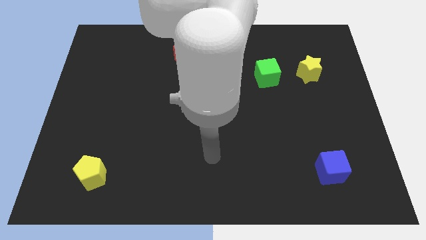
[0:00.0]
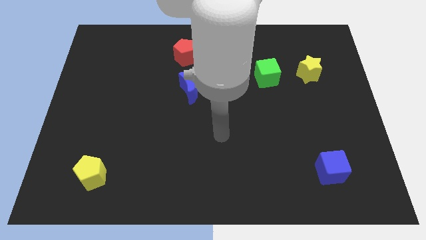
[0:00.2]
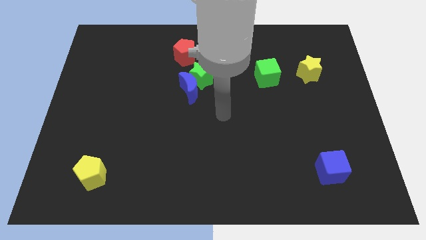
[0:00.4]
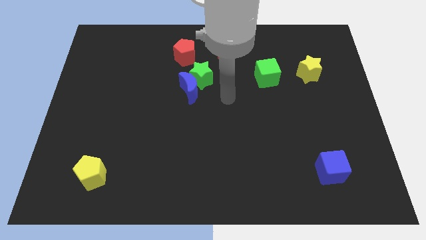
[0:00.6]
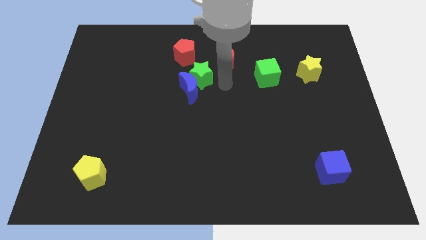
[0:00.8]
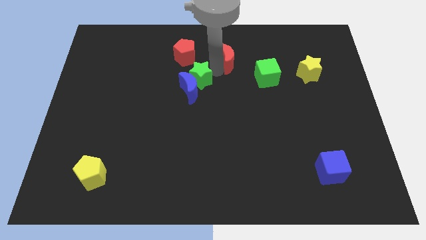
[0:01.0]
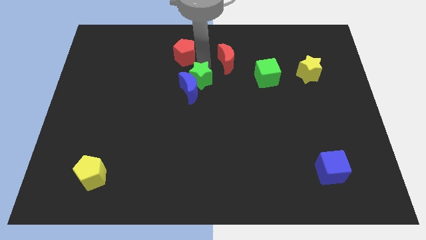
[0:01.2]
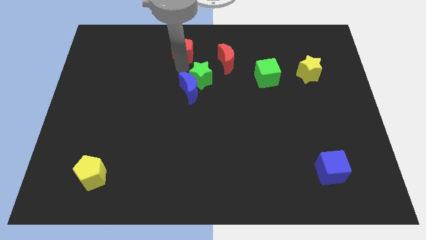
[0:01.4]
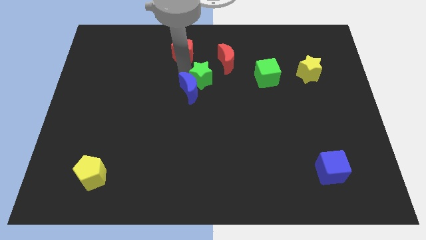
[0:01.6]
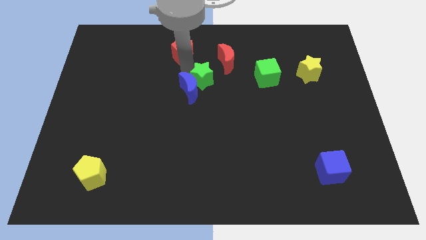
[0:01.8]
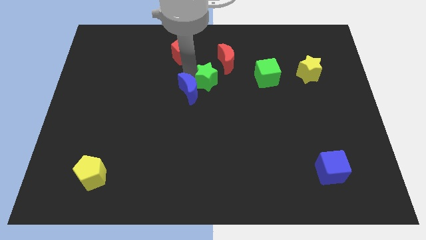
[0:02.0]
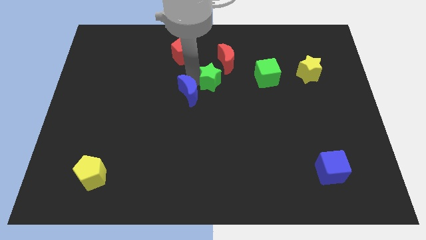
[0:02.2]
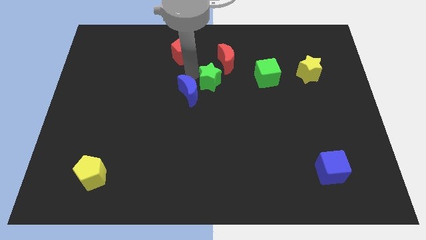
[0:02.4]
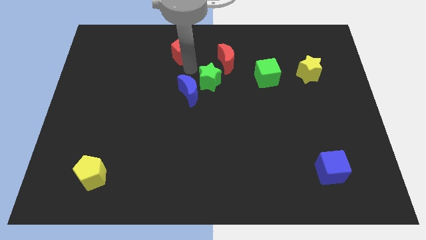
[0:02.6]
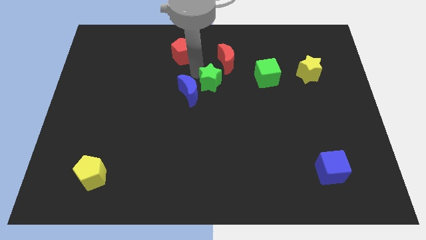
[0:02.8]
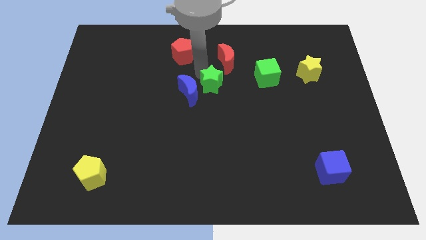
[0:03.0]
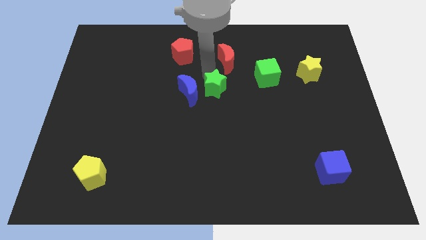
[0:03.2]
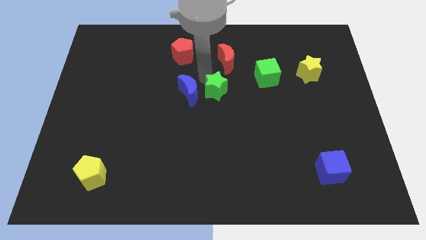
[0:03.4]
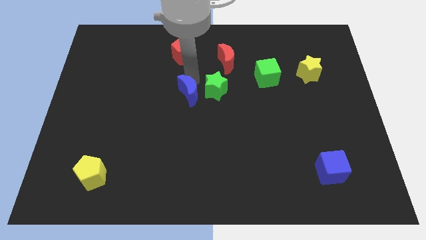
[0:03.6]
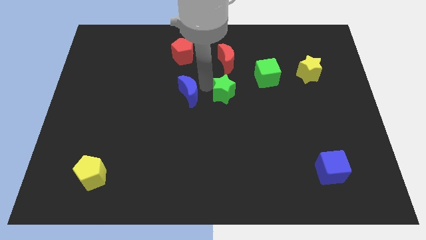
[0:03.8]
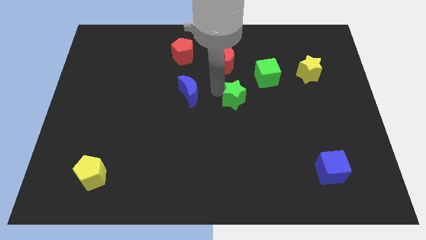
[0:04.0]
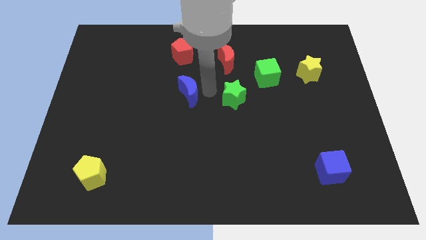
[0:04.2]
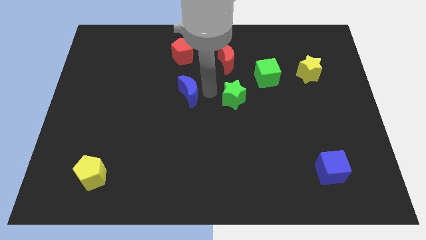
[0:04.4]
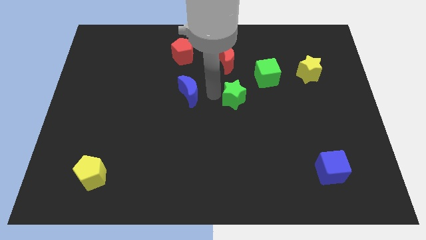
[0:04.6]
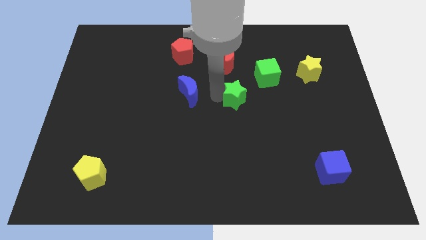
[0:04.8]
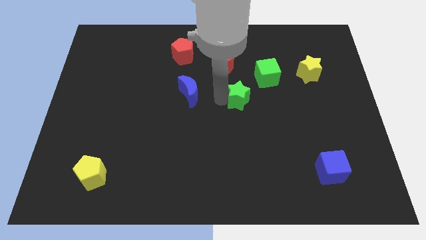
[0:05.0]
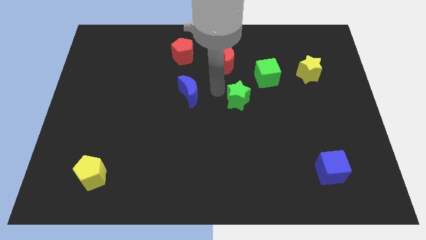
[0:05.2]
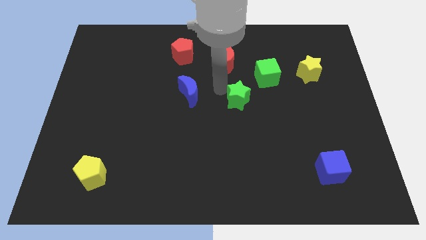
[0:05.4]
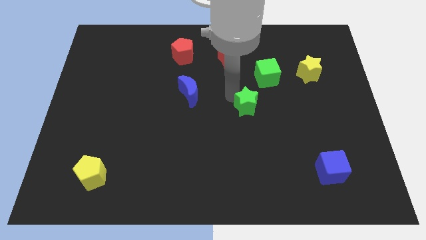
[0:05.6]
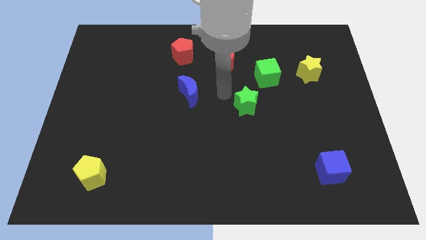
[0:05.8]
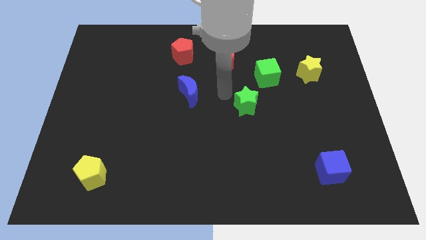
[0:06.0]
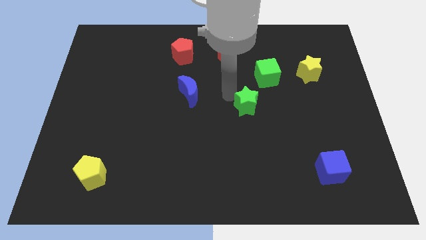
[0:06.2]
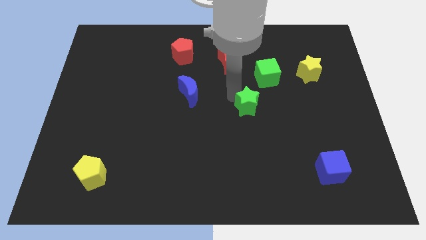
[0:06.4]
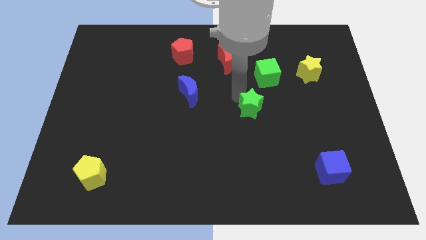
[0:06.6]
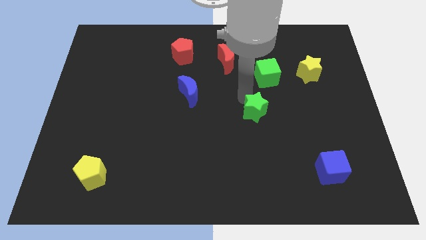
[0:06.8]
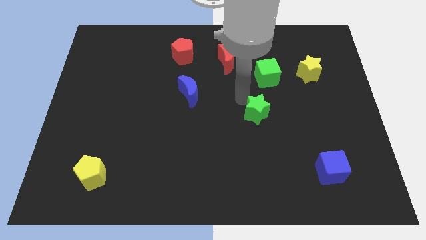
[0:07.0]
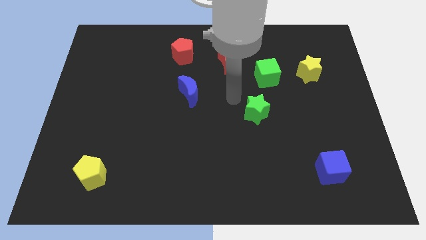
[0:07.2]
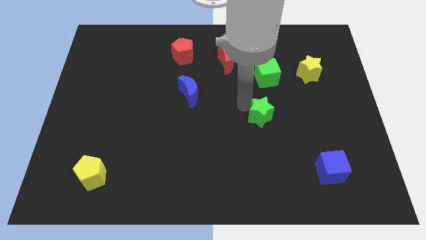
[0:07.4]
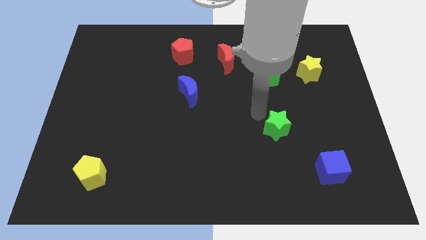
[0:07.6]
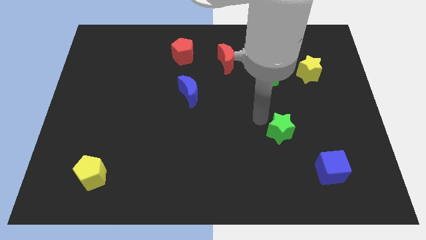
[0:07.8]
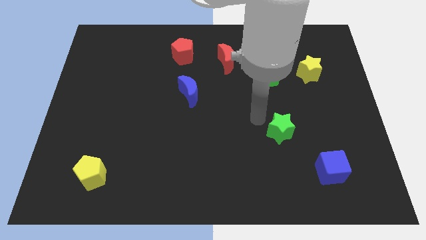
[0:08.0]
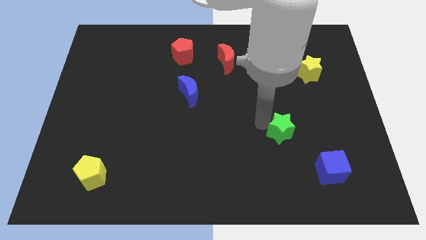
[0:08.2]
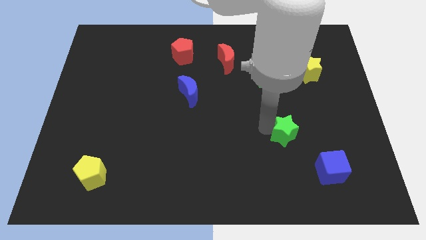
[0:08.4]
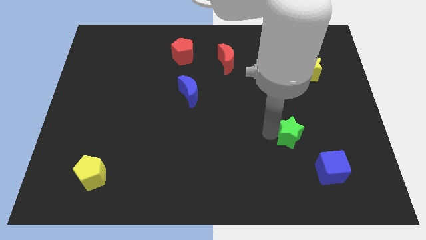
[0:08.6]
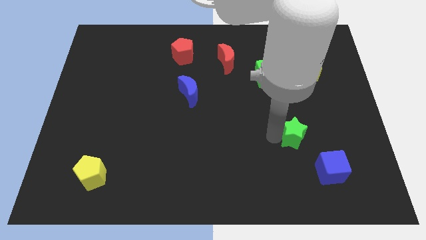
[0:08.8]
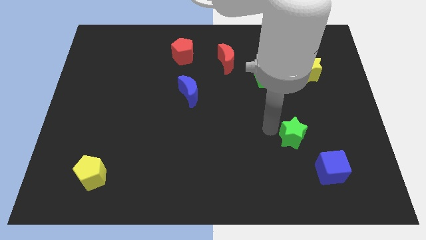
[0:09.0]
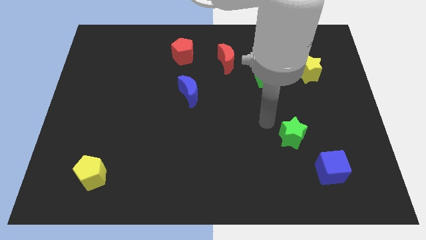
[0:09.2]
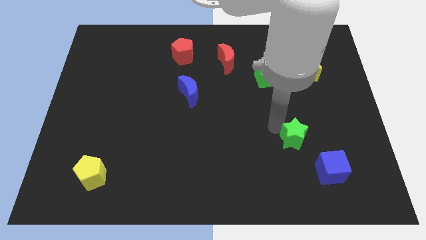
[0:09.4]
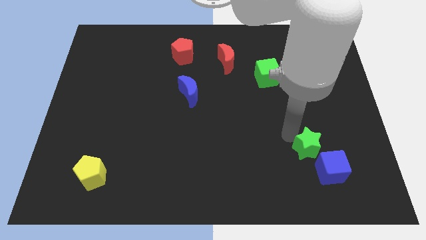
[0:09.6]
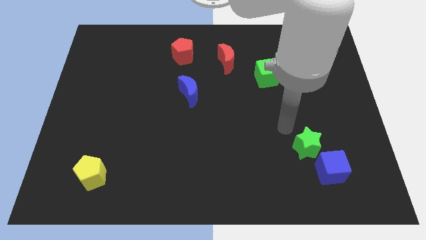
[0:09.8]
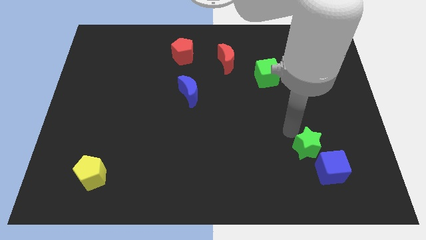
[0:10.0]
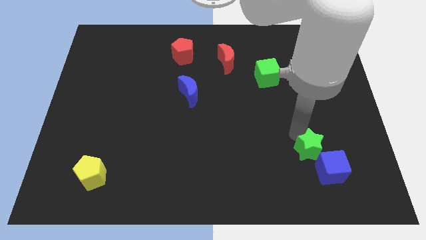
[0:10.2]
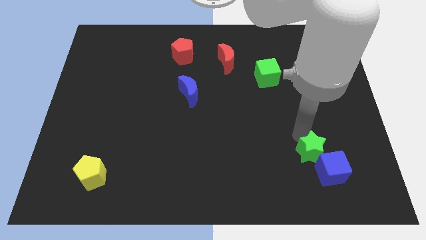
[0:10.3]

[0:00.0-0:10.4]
push the green star to the blue cube

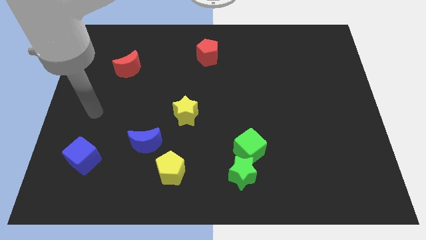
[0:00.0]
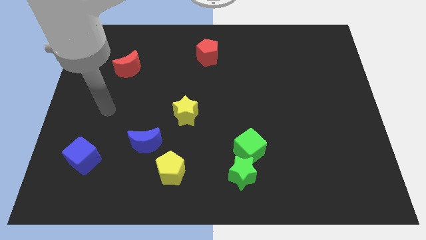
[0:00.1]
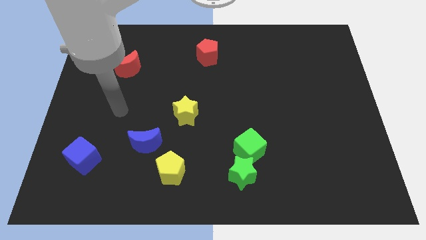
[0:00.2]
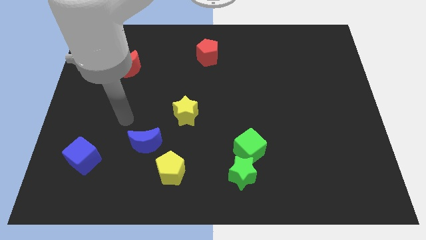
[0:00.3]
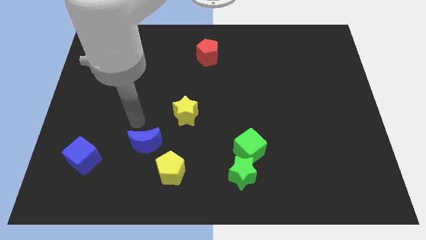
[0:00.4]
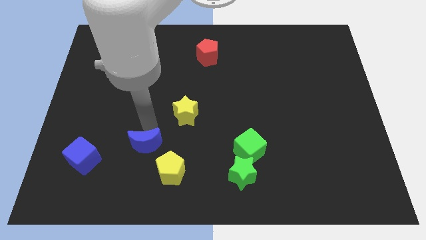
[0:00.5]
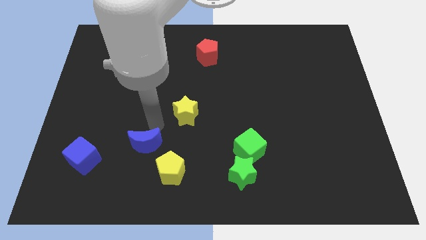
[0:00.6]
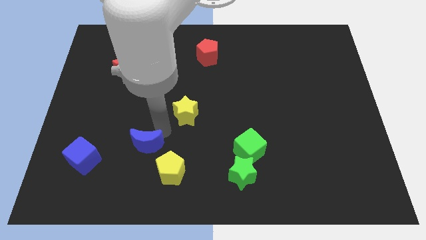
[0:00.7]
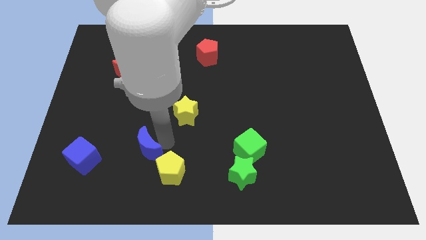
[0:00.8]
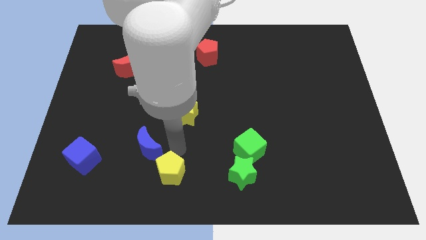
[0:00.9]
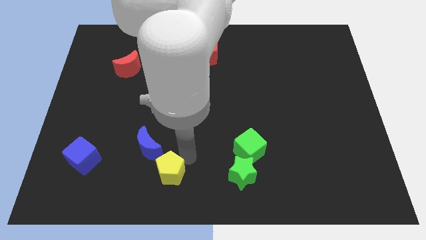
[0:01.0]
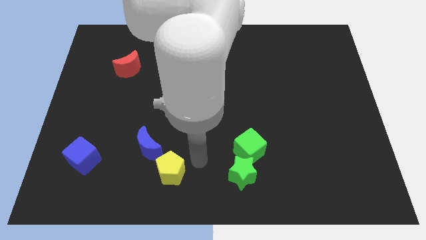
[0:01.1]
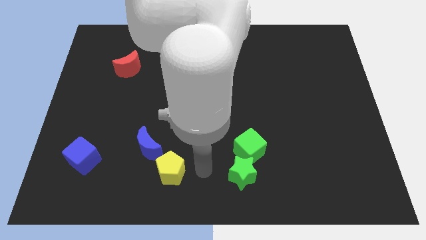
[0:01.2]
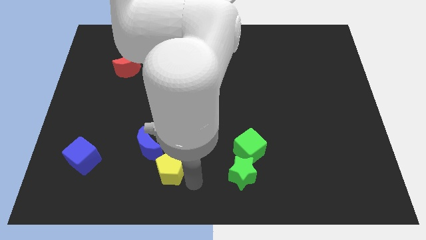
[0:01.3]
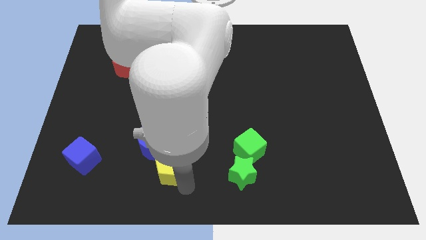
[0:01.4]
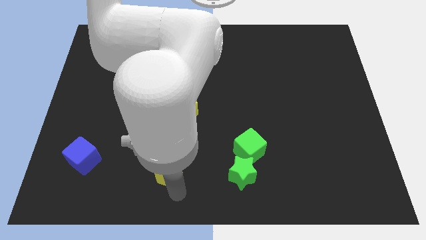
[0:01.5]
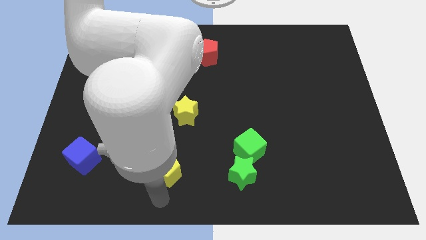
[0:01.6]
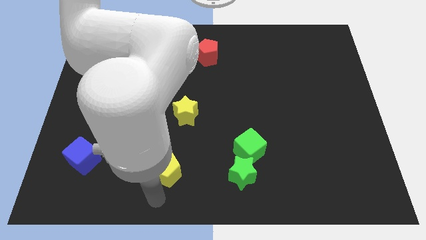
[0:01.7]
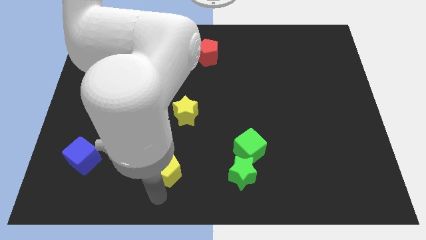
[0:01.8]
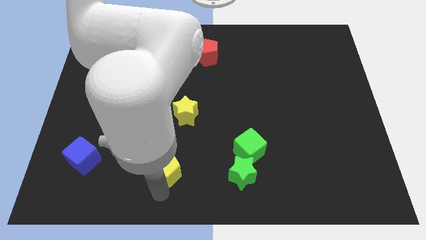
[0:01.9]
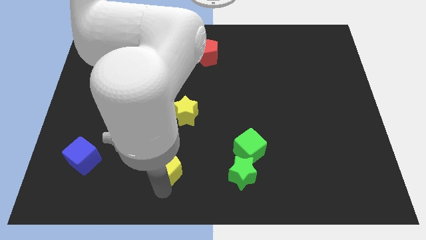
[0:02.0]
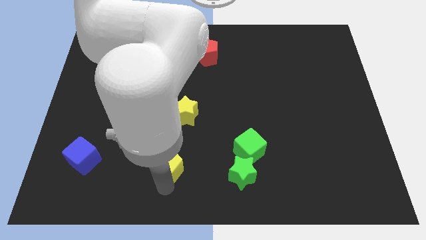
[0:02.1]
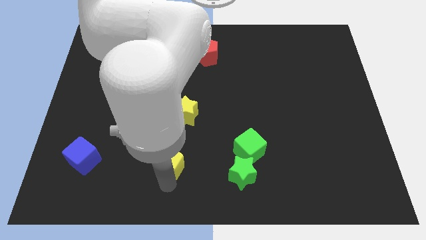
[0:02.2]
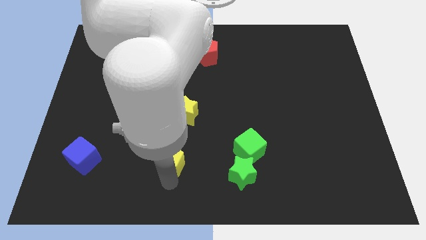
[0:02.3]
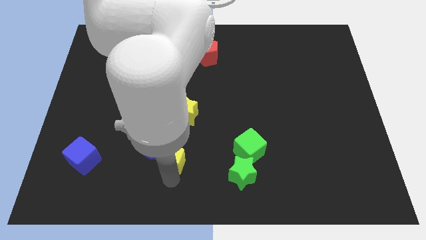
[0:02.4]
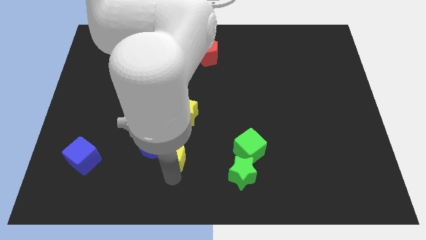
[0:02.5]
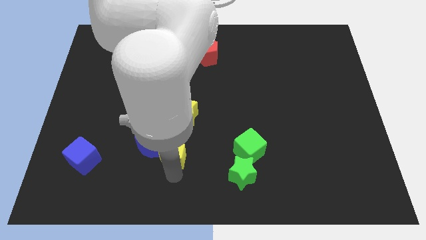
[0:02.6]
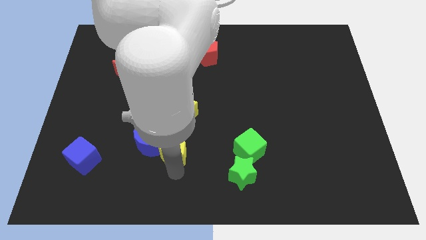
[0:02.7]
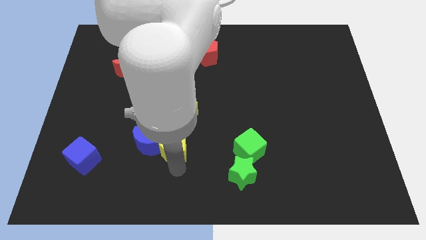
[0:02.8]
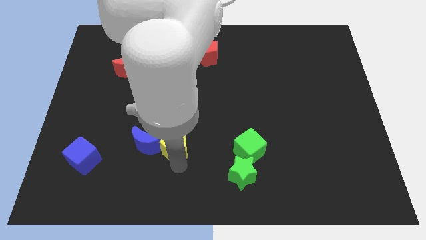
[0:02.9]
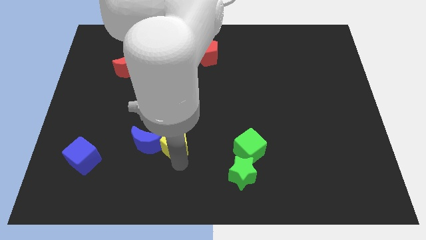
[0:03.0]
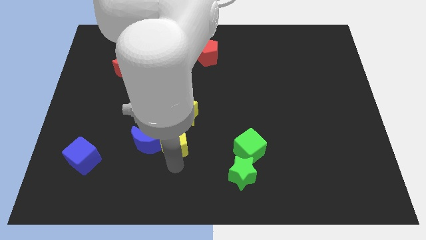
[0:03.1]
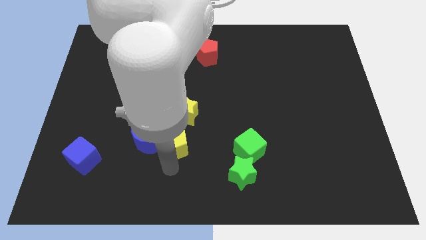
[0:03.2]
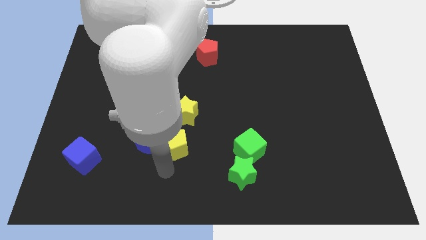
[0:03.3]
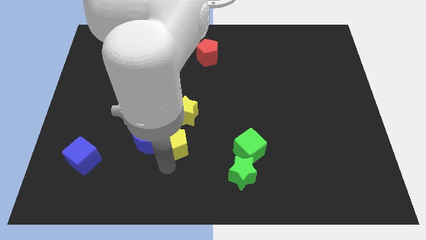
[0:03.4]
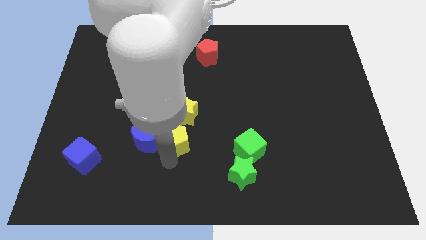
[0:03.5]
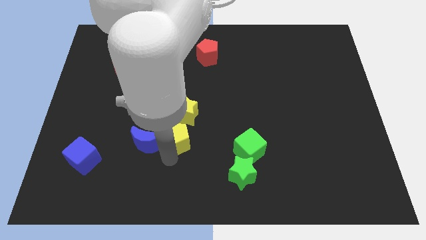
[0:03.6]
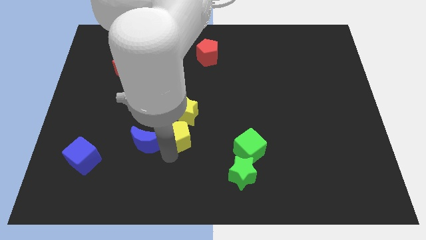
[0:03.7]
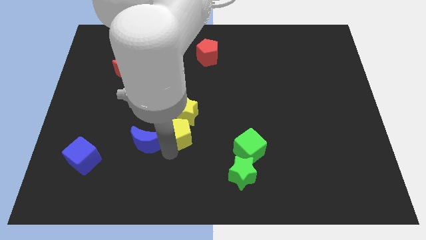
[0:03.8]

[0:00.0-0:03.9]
put the yellow pentagon close to the yellow star
